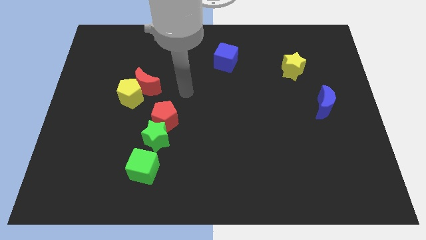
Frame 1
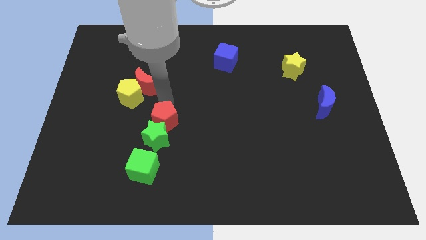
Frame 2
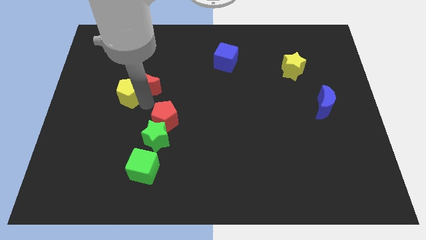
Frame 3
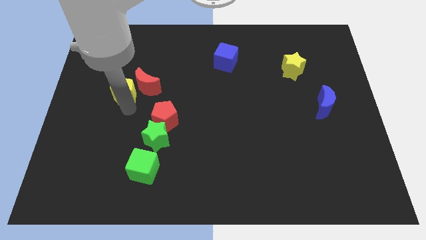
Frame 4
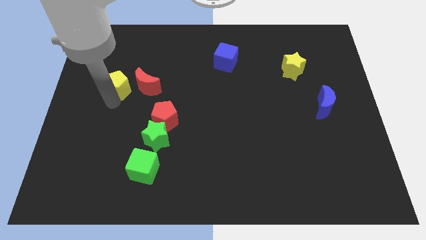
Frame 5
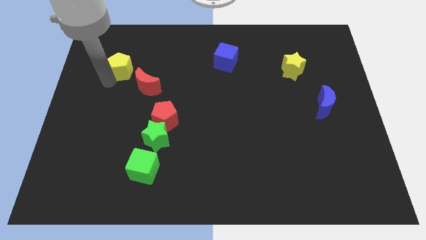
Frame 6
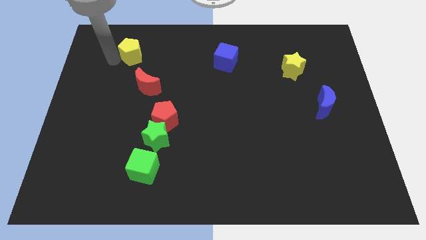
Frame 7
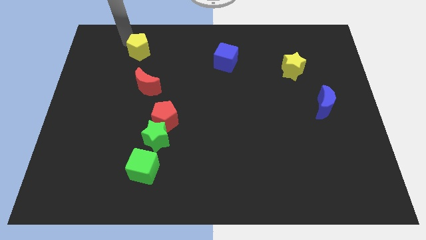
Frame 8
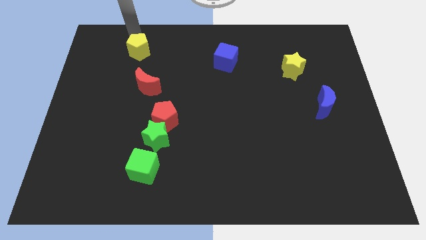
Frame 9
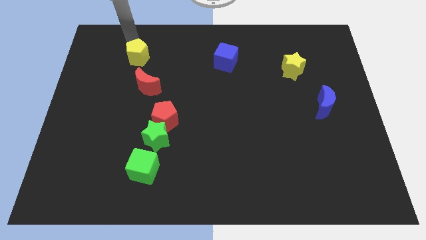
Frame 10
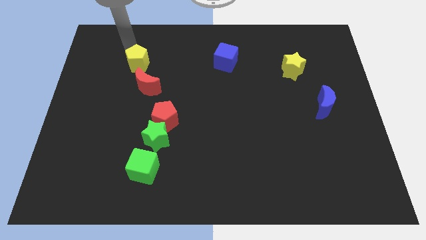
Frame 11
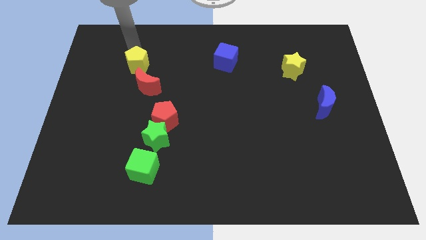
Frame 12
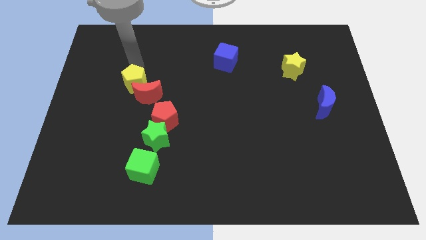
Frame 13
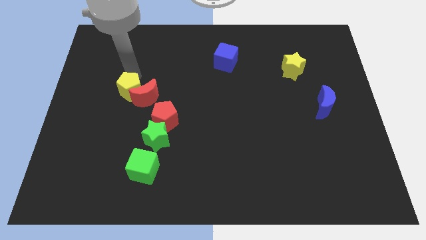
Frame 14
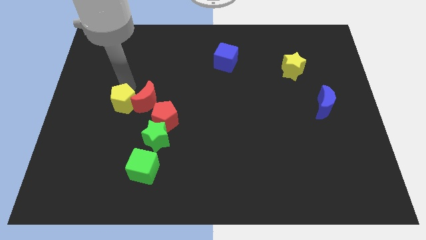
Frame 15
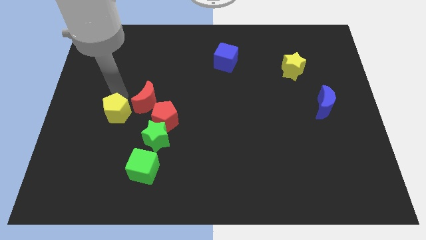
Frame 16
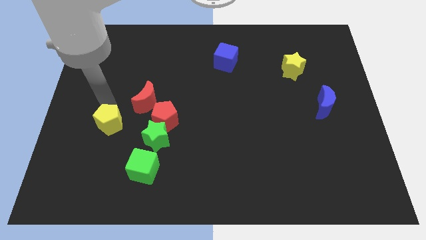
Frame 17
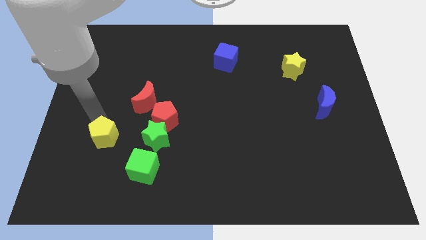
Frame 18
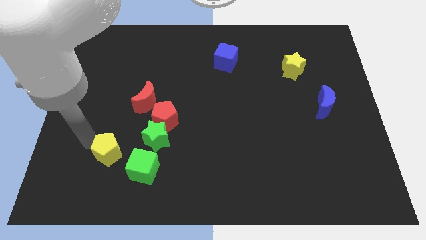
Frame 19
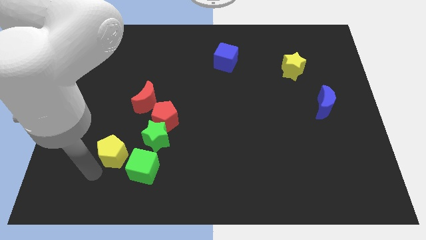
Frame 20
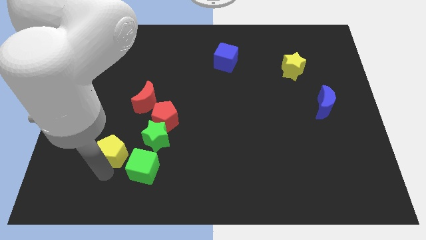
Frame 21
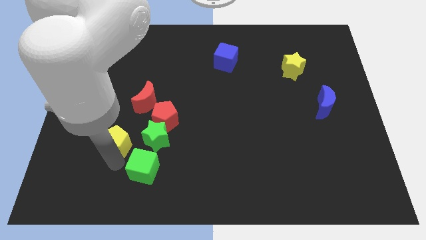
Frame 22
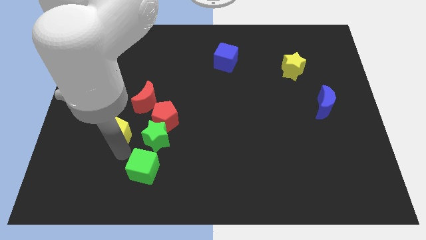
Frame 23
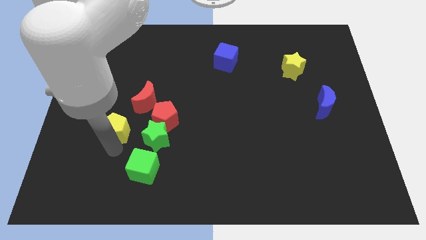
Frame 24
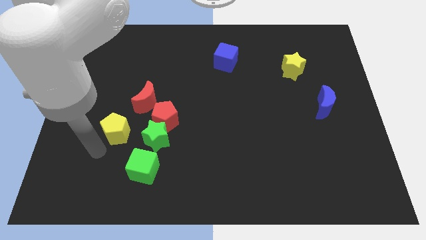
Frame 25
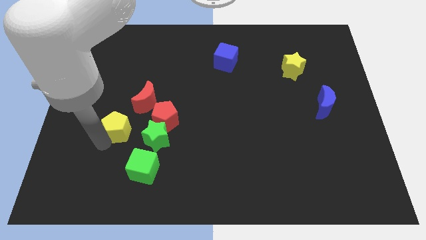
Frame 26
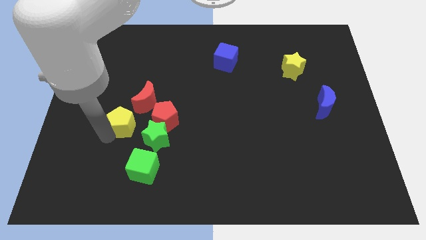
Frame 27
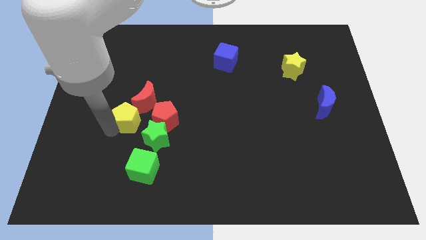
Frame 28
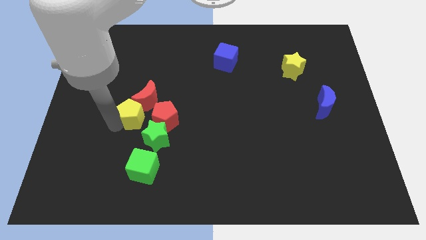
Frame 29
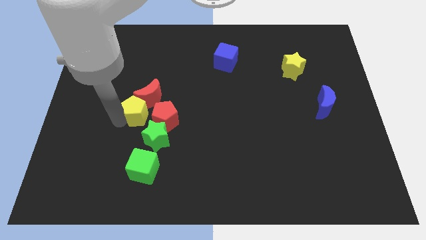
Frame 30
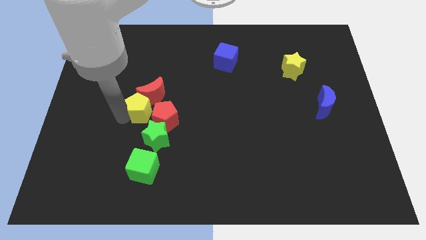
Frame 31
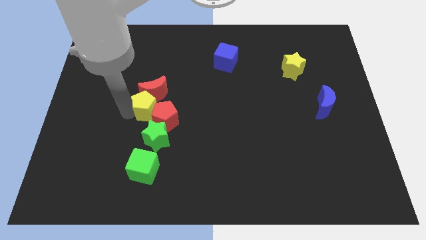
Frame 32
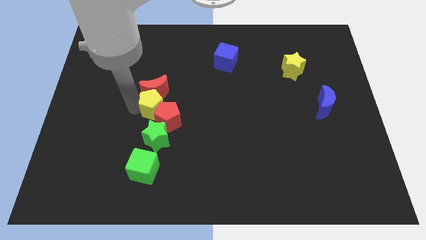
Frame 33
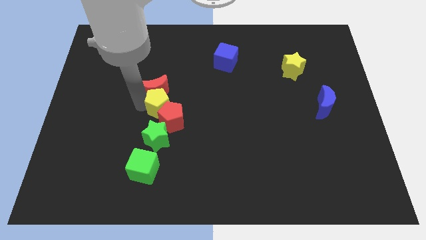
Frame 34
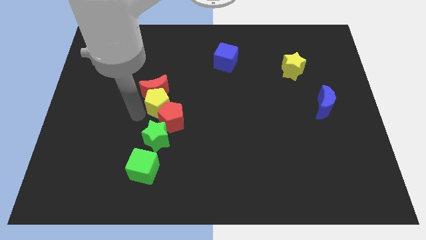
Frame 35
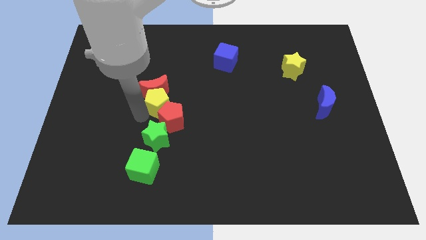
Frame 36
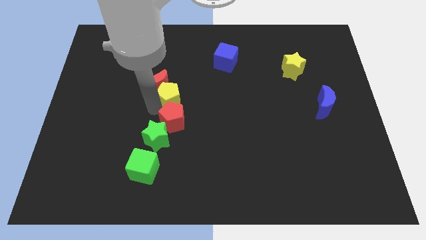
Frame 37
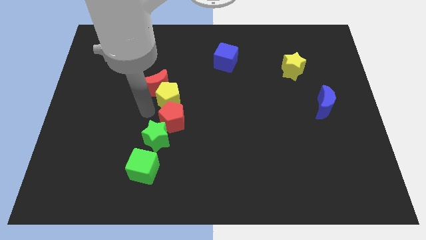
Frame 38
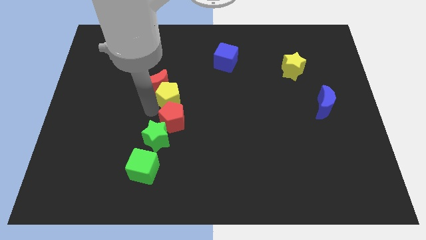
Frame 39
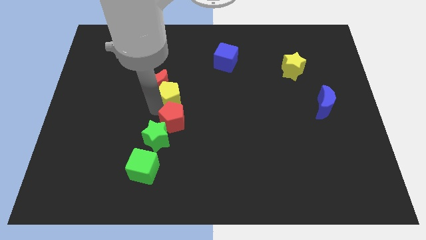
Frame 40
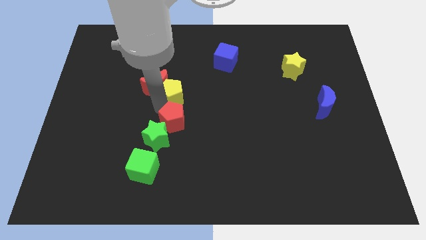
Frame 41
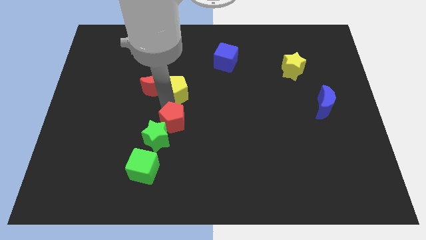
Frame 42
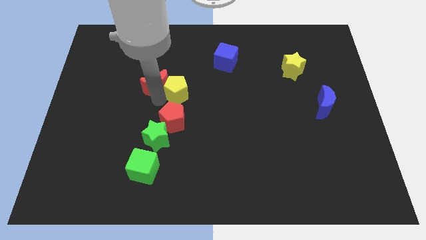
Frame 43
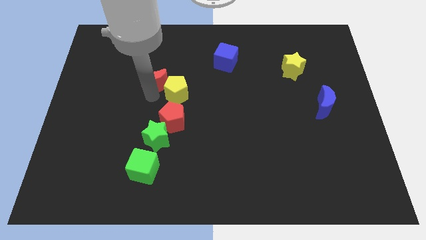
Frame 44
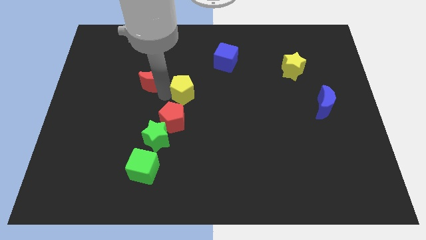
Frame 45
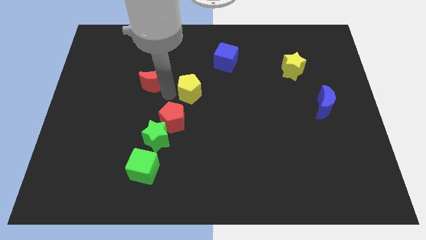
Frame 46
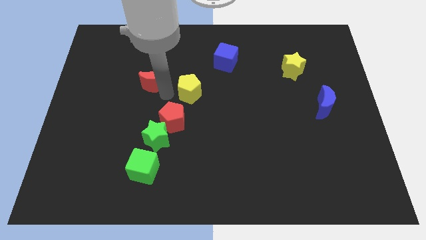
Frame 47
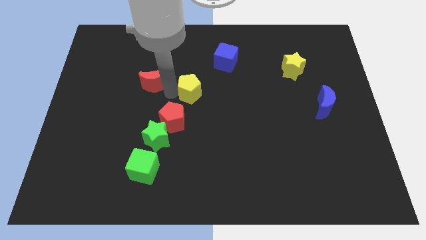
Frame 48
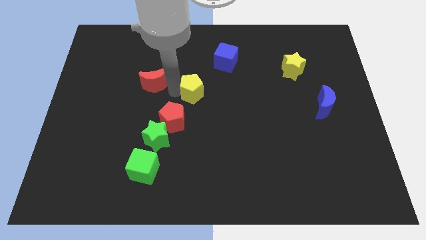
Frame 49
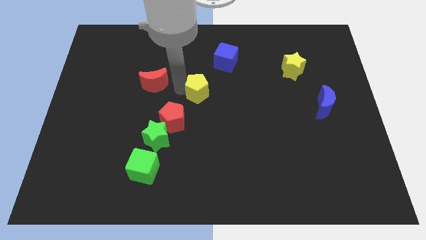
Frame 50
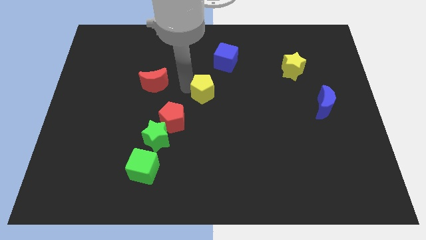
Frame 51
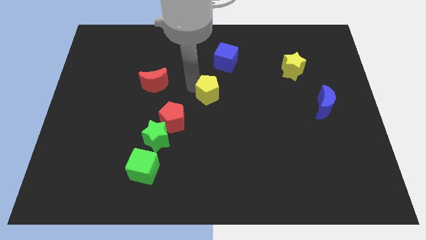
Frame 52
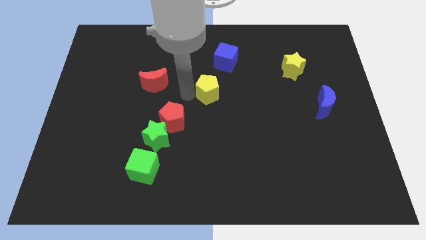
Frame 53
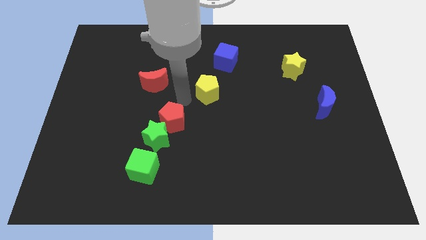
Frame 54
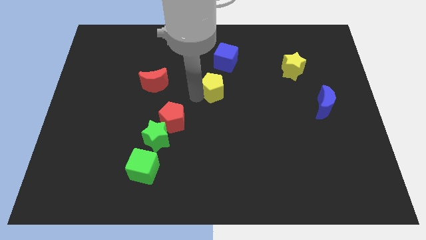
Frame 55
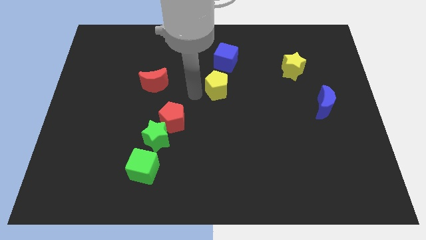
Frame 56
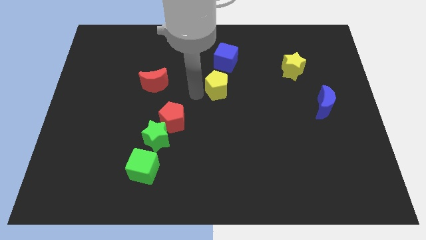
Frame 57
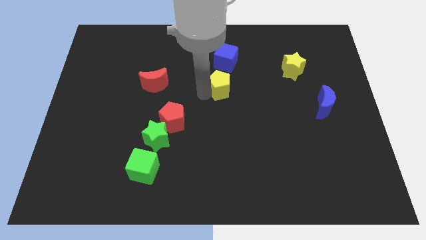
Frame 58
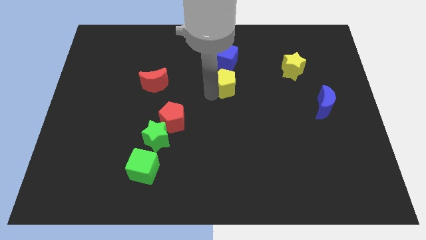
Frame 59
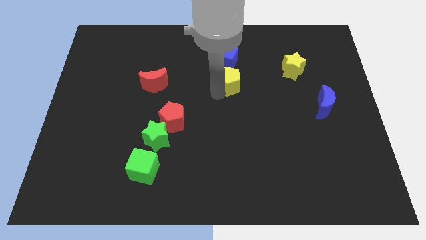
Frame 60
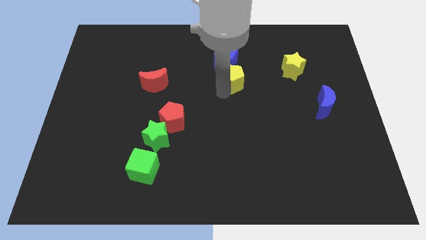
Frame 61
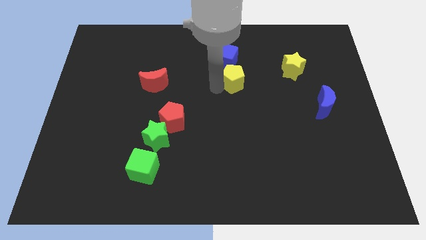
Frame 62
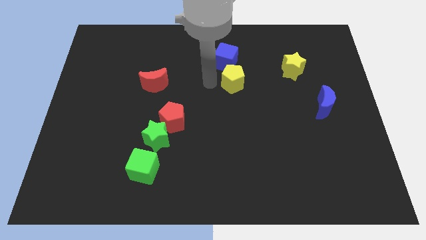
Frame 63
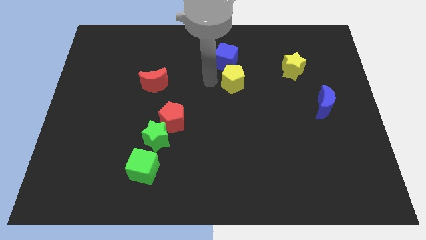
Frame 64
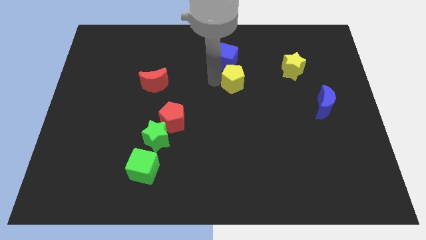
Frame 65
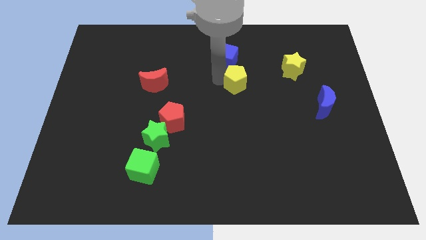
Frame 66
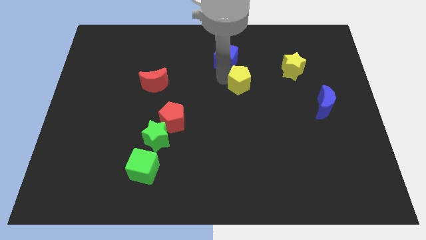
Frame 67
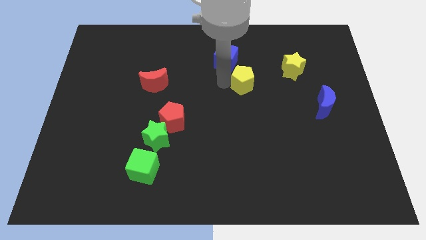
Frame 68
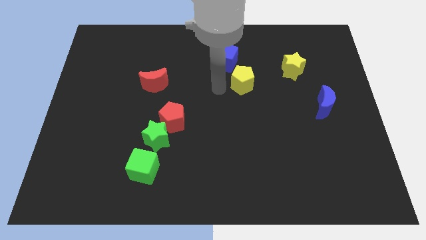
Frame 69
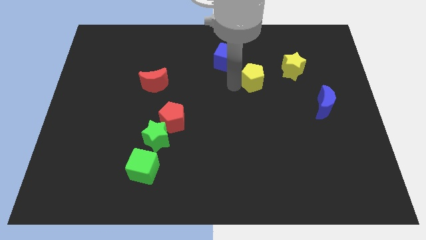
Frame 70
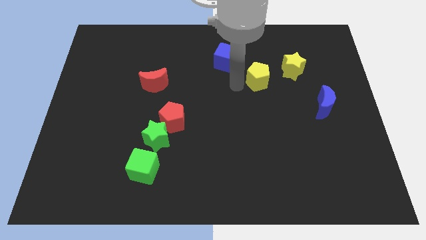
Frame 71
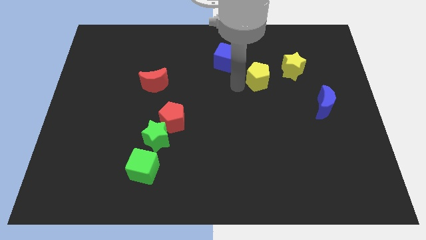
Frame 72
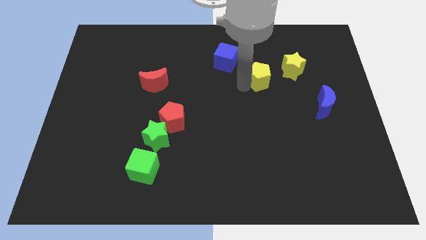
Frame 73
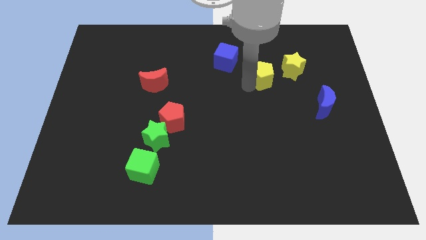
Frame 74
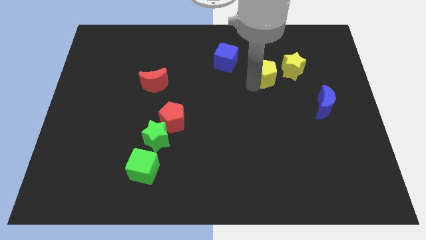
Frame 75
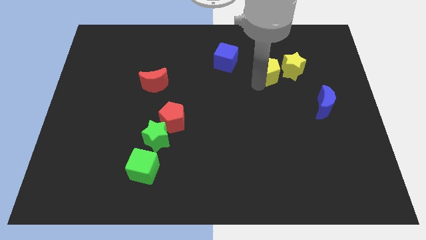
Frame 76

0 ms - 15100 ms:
push the yellow pentagon towards the yellow star
